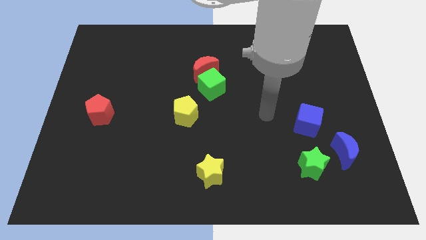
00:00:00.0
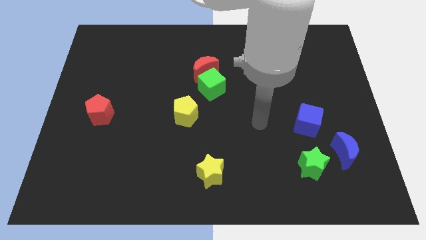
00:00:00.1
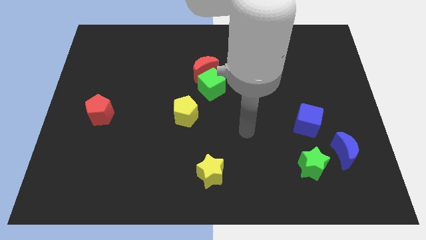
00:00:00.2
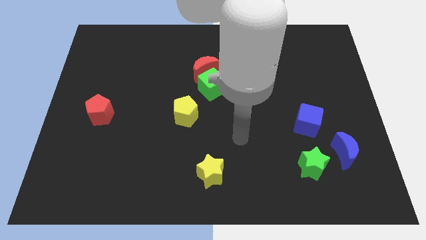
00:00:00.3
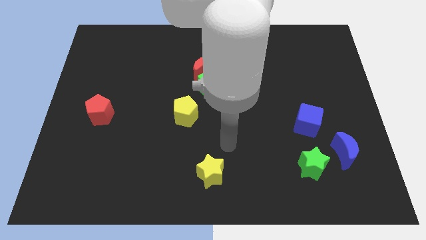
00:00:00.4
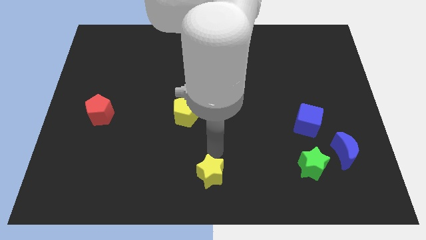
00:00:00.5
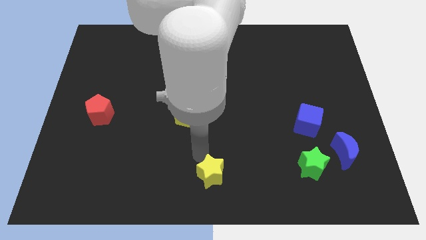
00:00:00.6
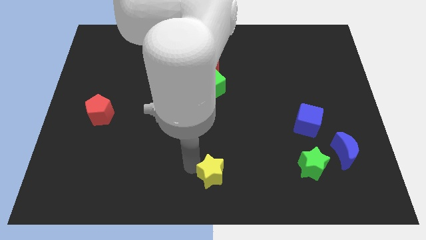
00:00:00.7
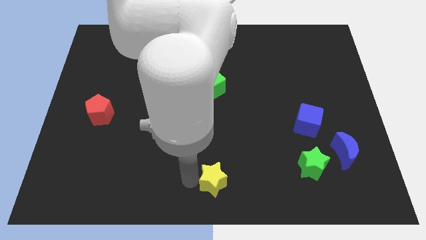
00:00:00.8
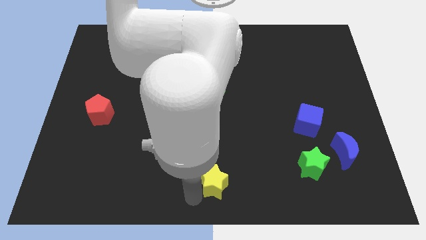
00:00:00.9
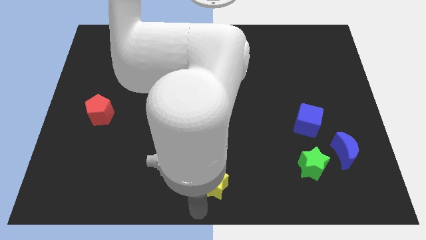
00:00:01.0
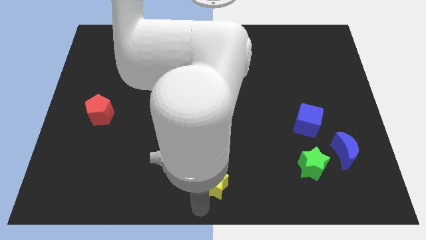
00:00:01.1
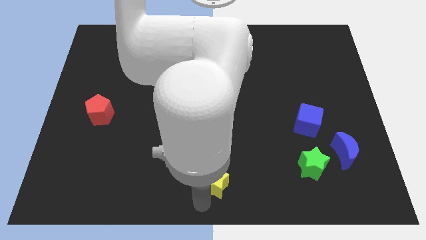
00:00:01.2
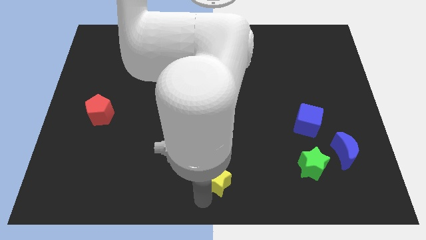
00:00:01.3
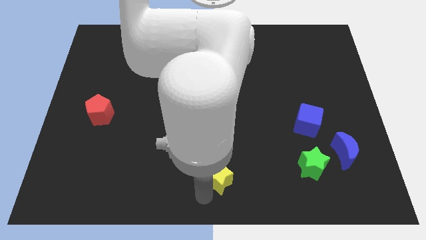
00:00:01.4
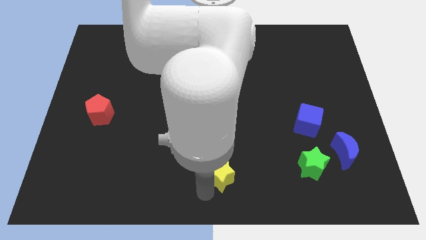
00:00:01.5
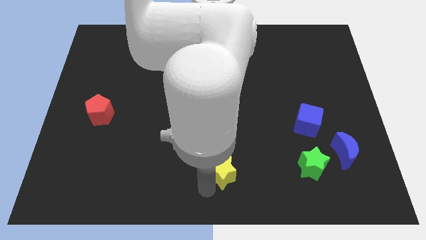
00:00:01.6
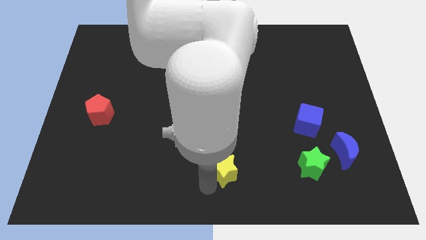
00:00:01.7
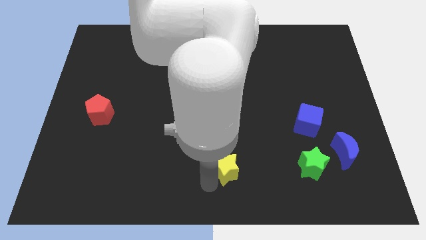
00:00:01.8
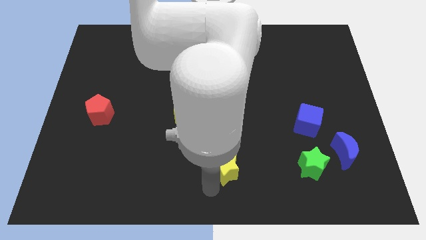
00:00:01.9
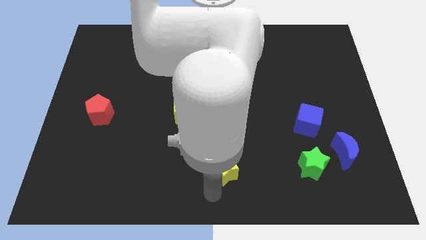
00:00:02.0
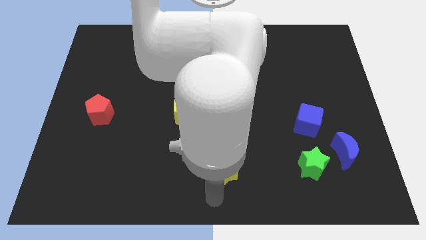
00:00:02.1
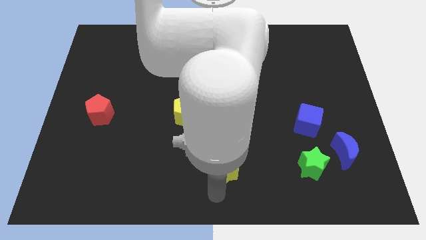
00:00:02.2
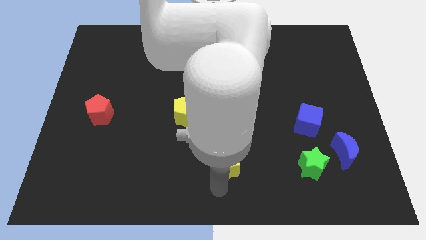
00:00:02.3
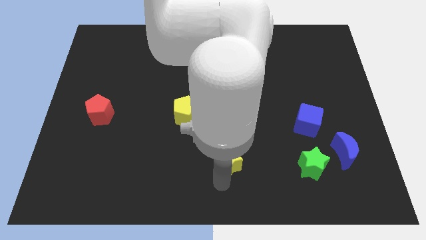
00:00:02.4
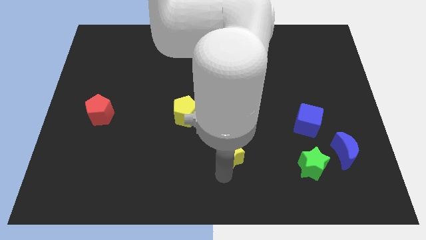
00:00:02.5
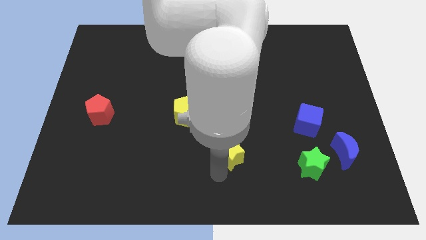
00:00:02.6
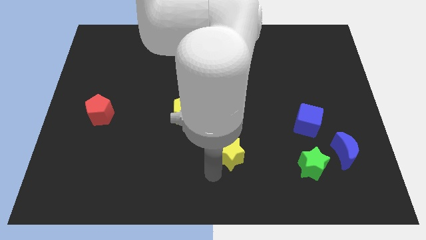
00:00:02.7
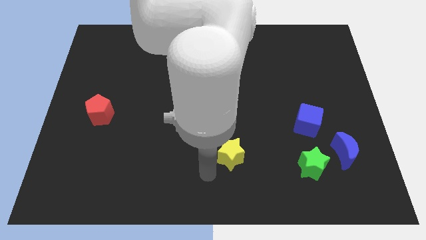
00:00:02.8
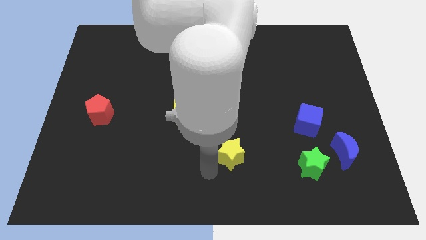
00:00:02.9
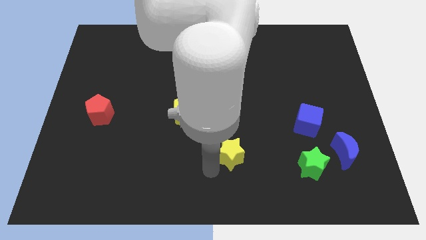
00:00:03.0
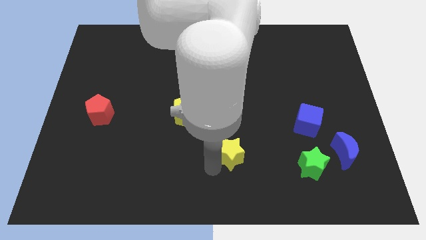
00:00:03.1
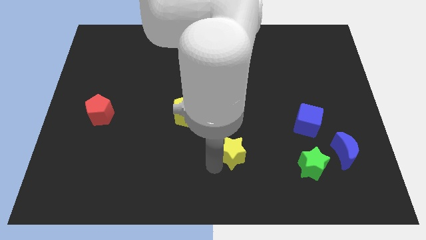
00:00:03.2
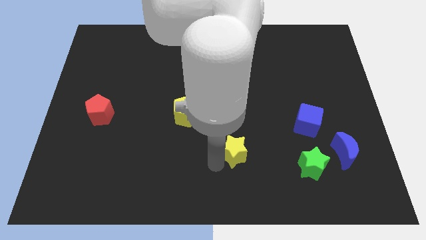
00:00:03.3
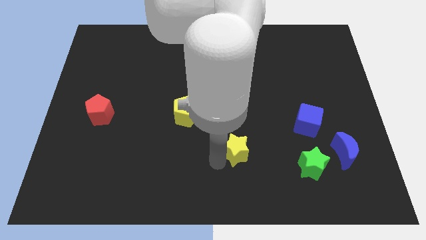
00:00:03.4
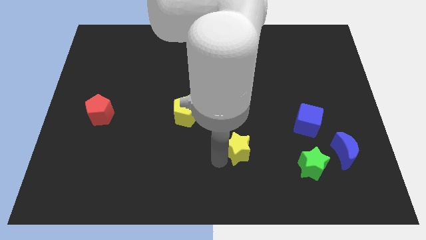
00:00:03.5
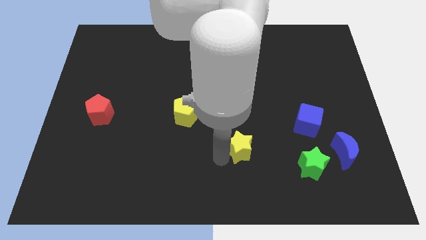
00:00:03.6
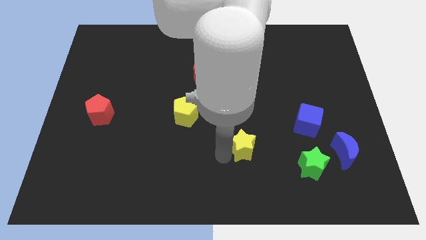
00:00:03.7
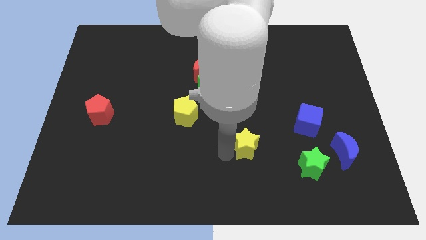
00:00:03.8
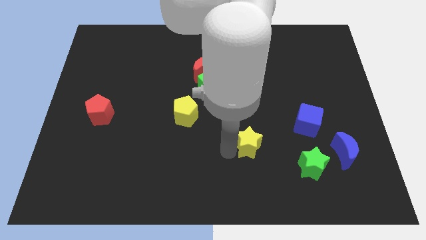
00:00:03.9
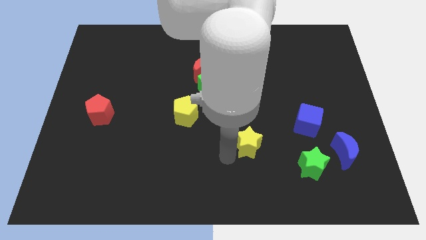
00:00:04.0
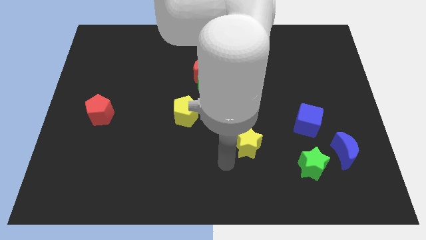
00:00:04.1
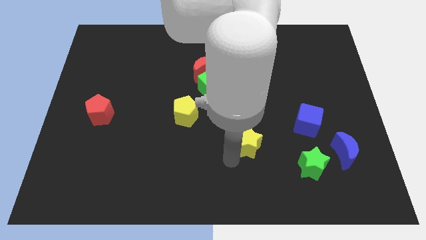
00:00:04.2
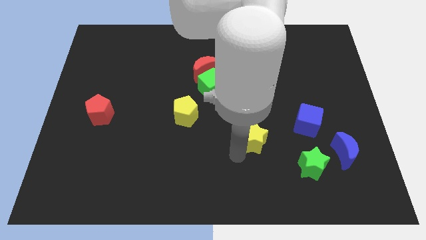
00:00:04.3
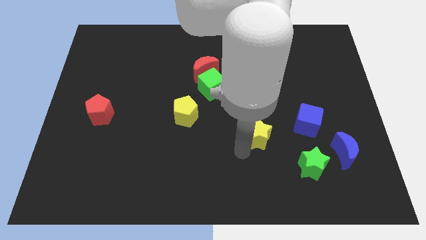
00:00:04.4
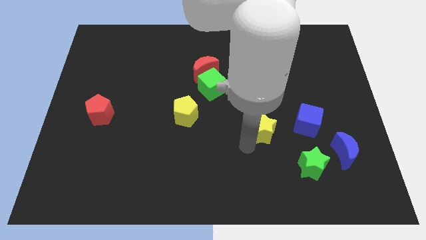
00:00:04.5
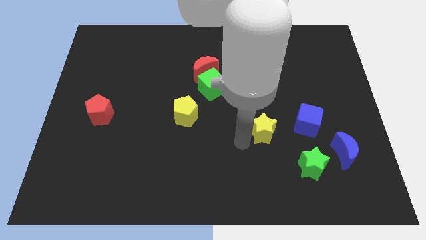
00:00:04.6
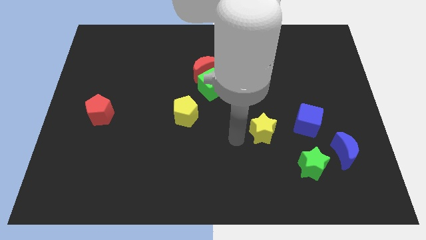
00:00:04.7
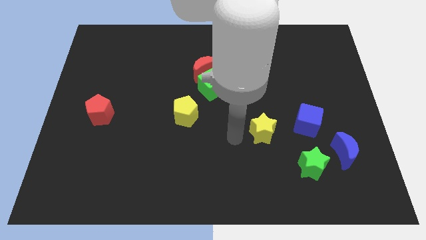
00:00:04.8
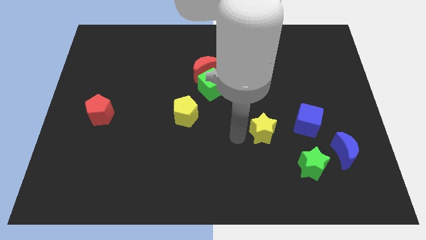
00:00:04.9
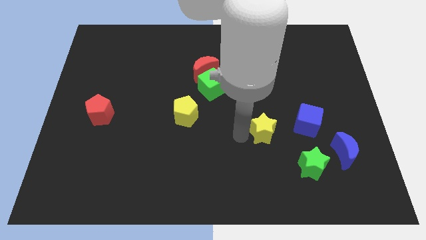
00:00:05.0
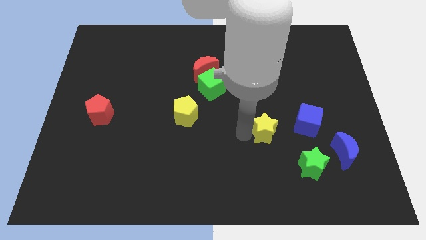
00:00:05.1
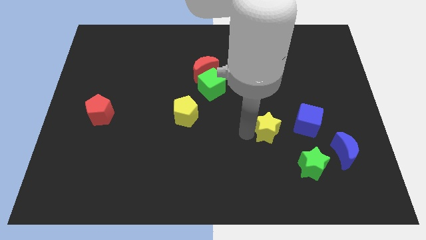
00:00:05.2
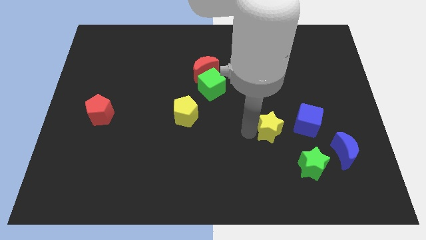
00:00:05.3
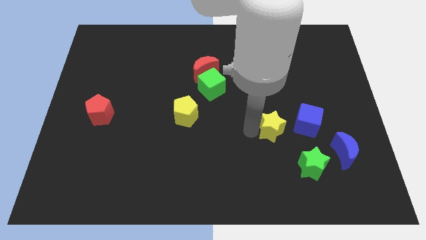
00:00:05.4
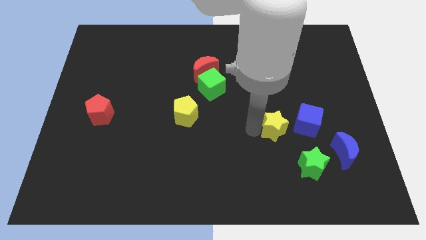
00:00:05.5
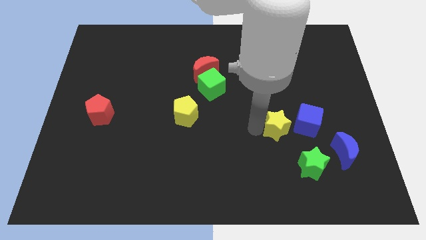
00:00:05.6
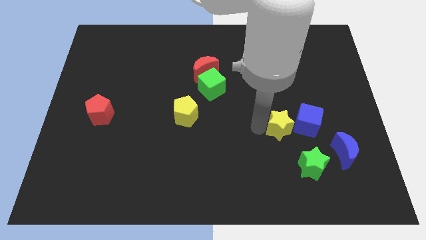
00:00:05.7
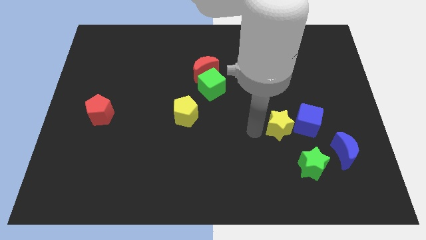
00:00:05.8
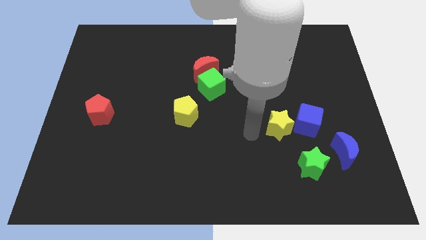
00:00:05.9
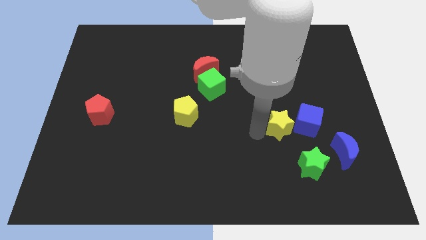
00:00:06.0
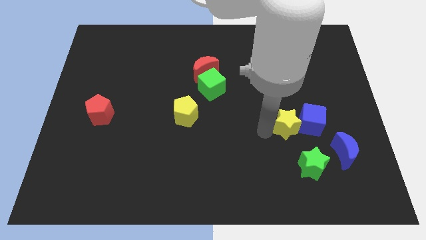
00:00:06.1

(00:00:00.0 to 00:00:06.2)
slide the yellow star next to the blue cube
